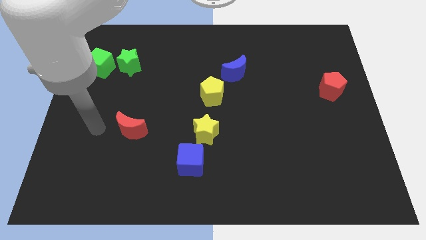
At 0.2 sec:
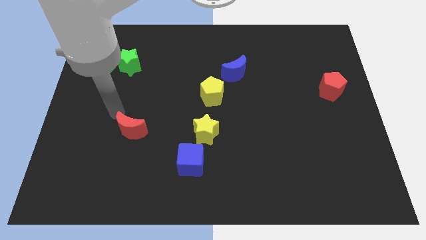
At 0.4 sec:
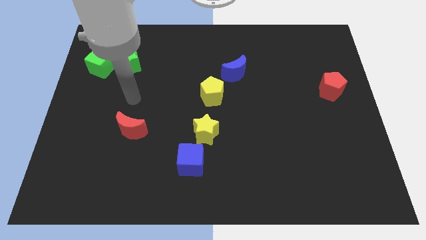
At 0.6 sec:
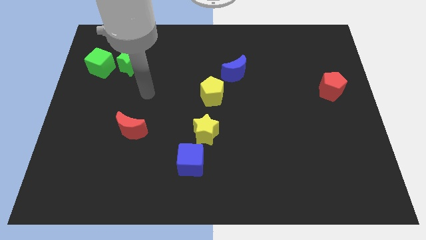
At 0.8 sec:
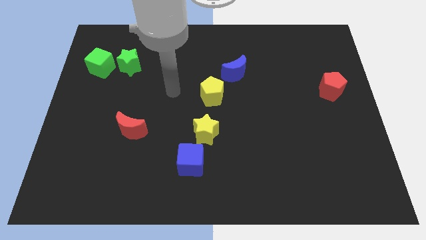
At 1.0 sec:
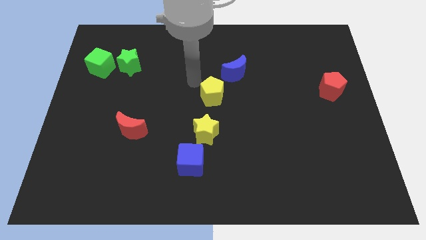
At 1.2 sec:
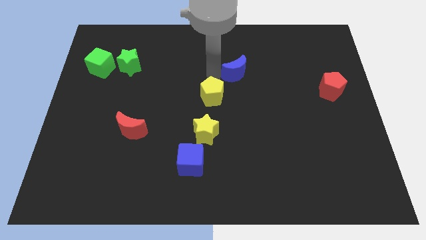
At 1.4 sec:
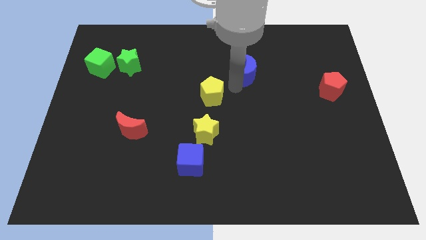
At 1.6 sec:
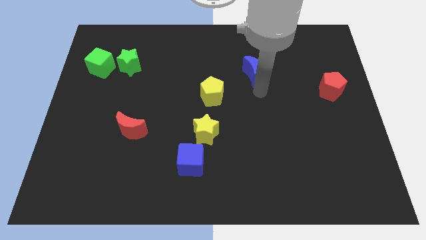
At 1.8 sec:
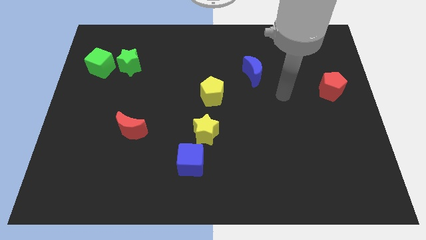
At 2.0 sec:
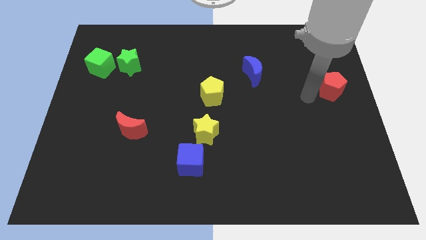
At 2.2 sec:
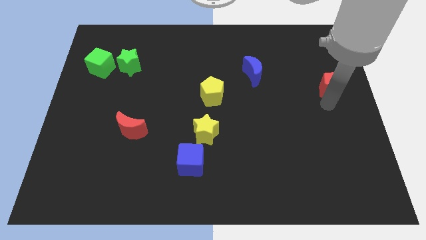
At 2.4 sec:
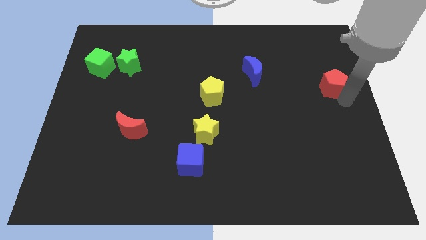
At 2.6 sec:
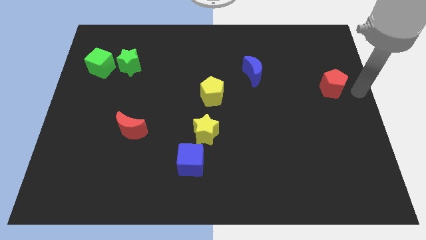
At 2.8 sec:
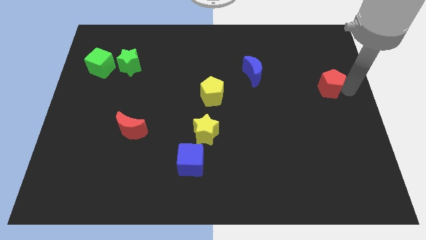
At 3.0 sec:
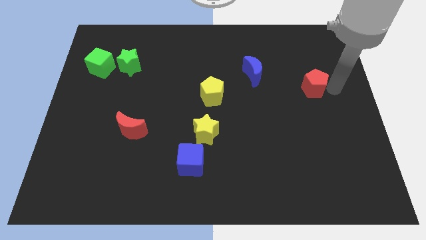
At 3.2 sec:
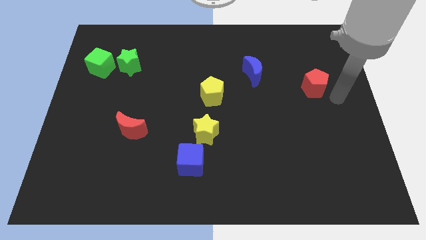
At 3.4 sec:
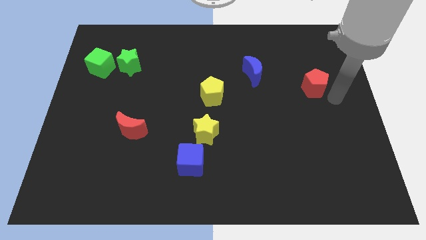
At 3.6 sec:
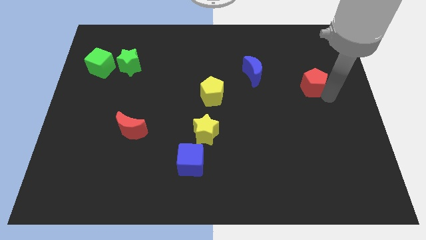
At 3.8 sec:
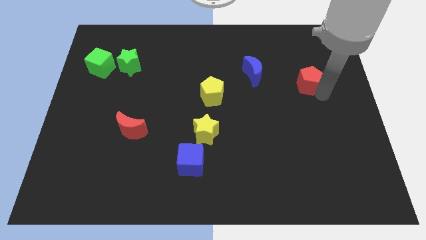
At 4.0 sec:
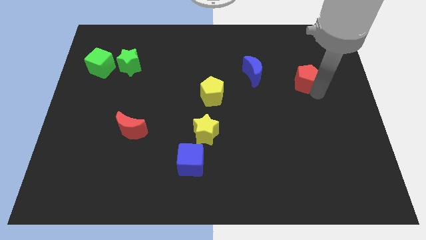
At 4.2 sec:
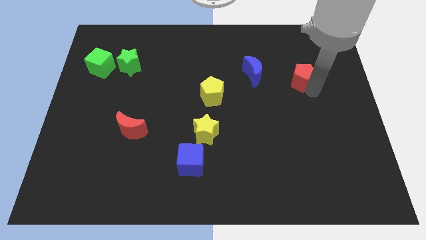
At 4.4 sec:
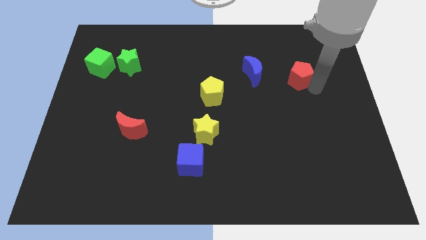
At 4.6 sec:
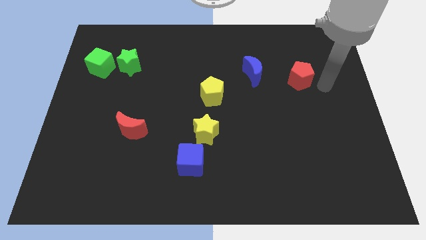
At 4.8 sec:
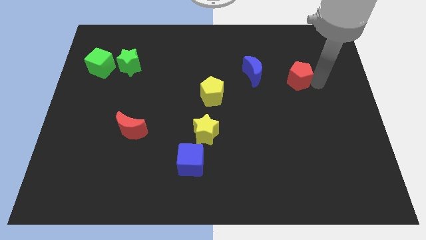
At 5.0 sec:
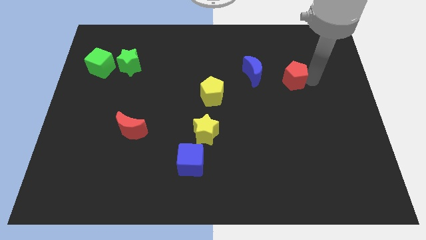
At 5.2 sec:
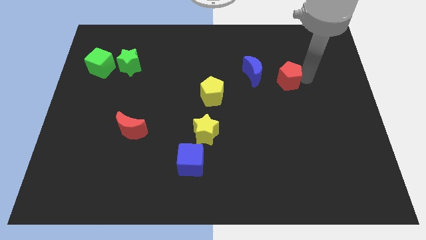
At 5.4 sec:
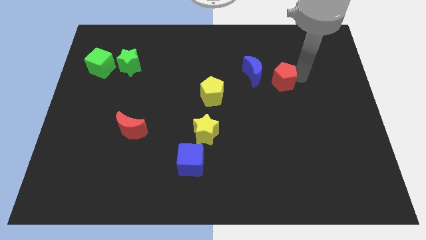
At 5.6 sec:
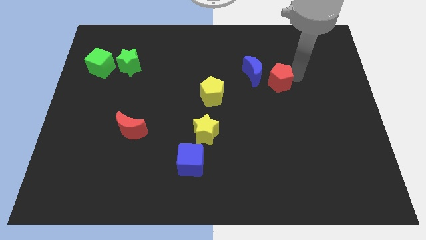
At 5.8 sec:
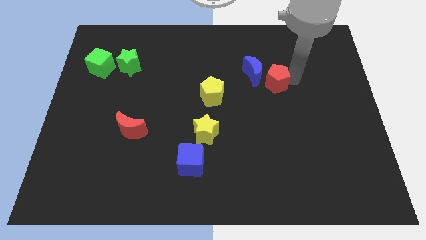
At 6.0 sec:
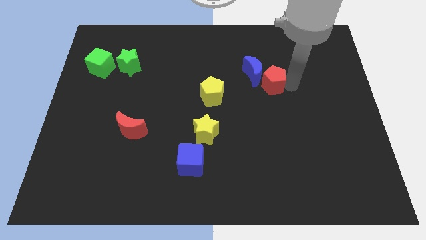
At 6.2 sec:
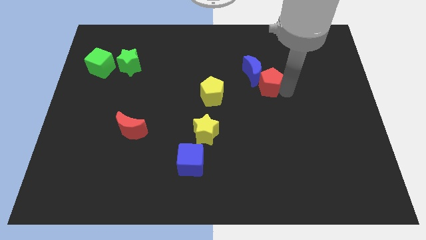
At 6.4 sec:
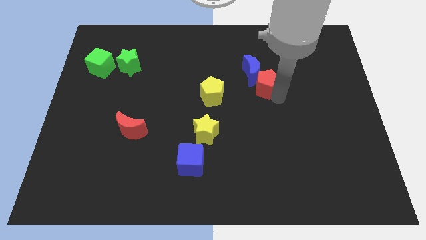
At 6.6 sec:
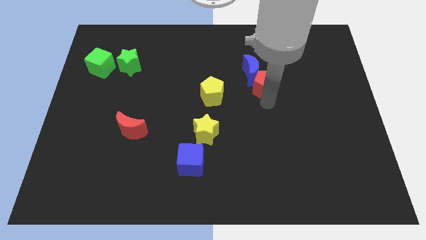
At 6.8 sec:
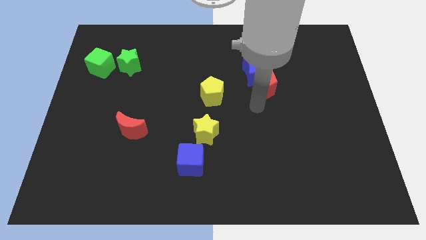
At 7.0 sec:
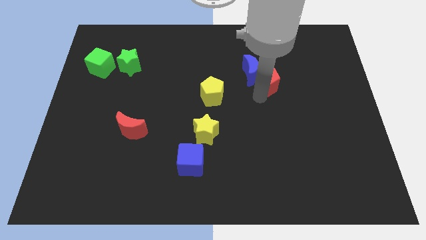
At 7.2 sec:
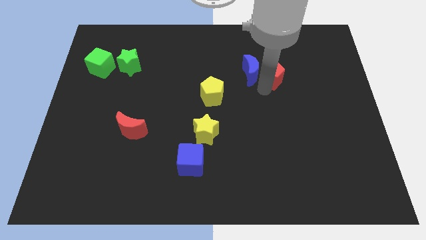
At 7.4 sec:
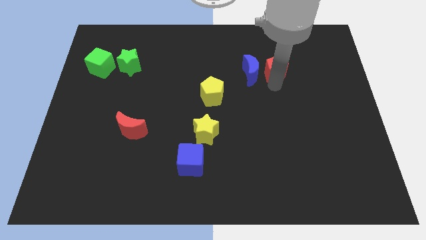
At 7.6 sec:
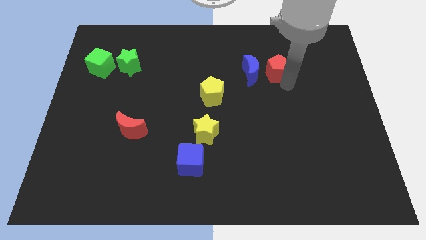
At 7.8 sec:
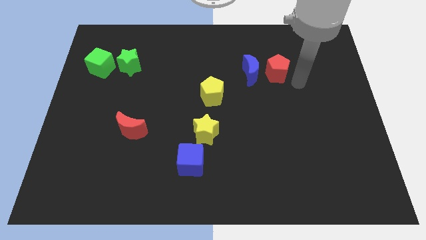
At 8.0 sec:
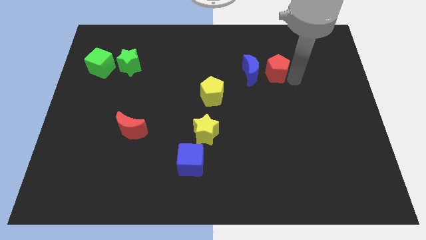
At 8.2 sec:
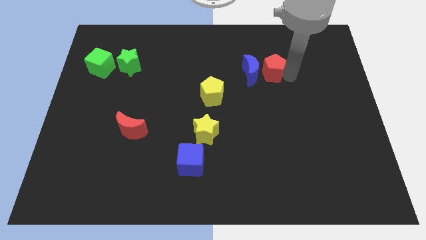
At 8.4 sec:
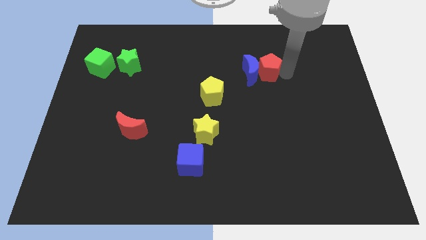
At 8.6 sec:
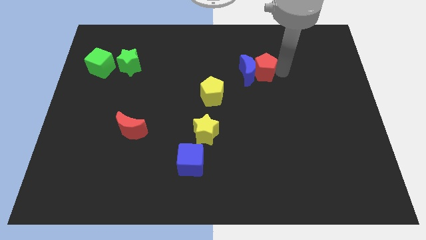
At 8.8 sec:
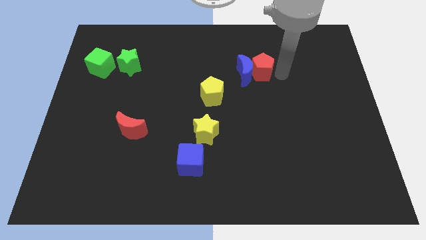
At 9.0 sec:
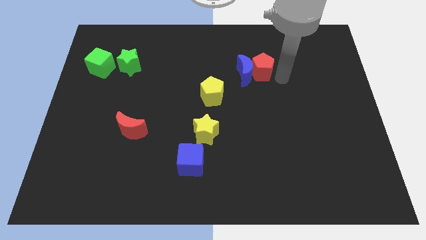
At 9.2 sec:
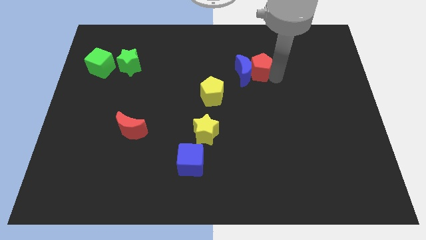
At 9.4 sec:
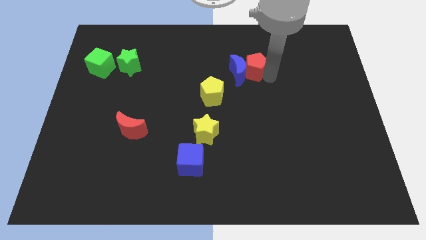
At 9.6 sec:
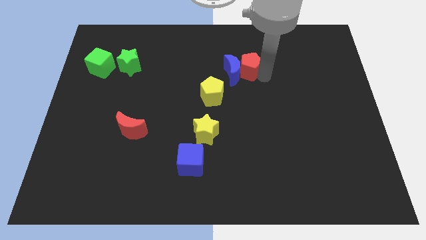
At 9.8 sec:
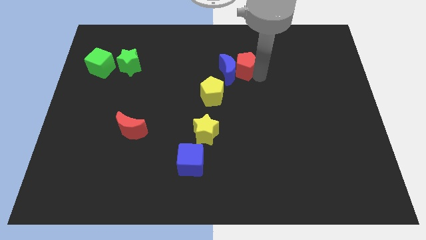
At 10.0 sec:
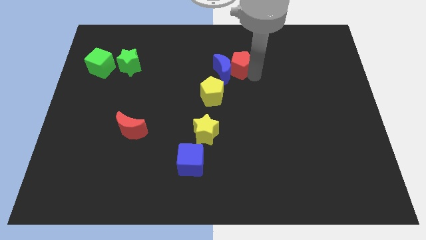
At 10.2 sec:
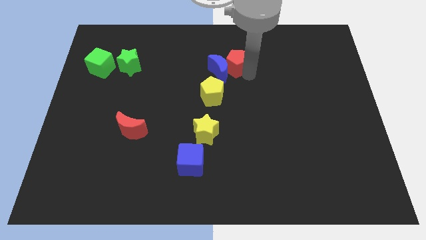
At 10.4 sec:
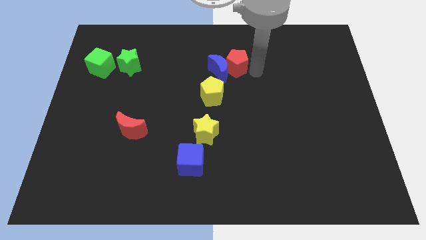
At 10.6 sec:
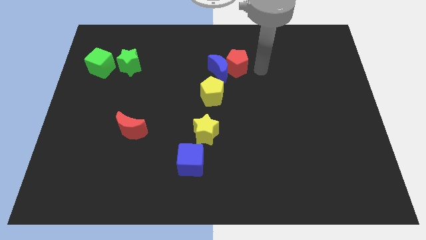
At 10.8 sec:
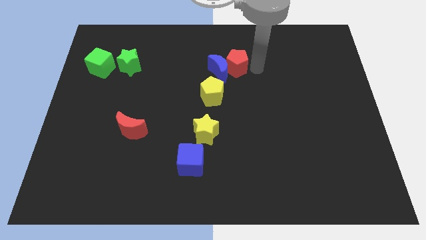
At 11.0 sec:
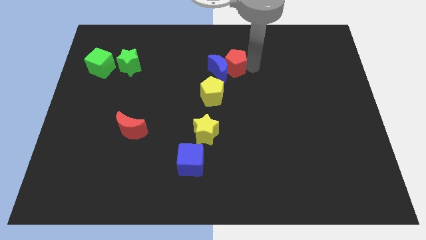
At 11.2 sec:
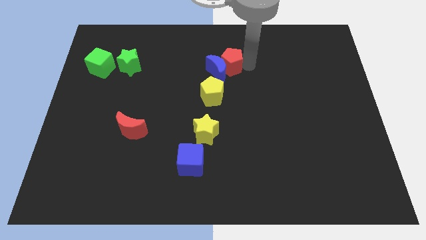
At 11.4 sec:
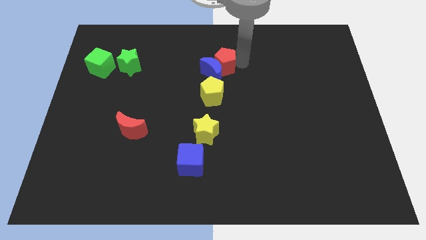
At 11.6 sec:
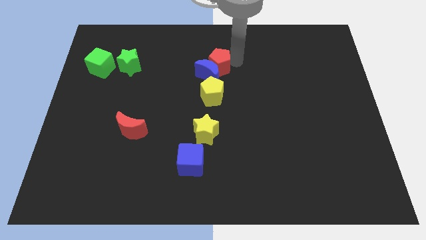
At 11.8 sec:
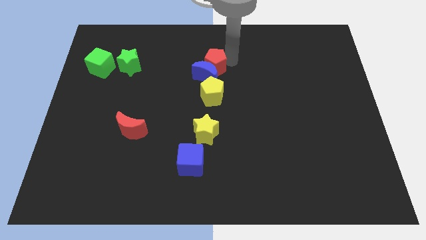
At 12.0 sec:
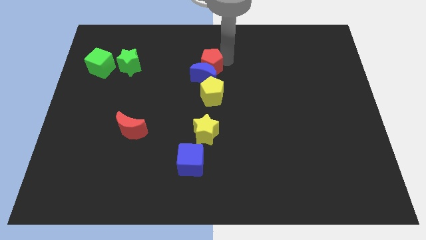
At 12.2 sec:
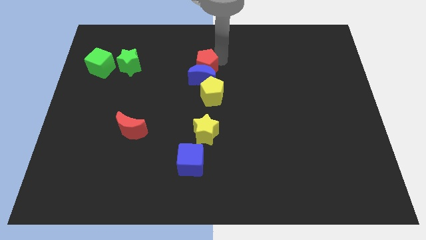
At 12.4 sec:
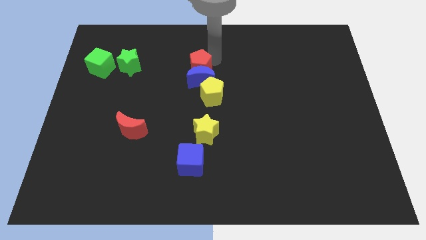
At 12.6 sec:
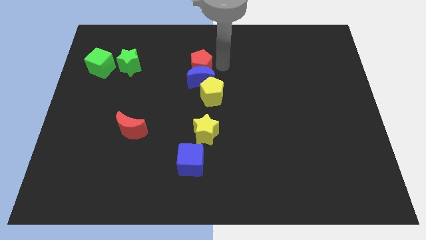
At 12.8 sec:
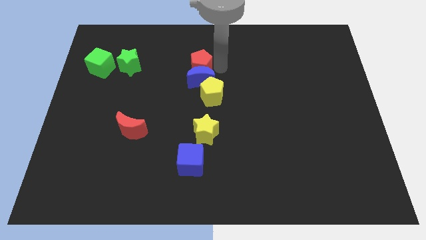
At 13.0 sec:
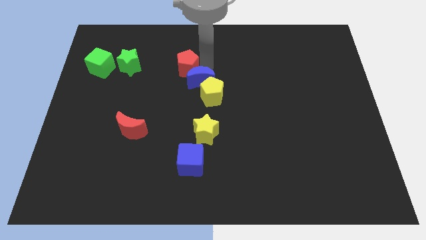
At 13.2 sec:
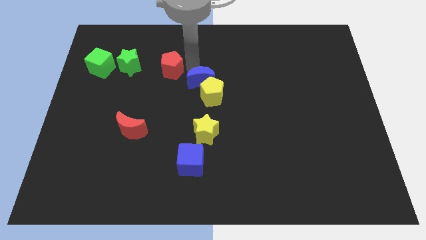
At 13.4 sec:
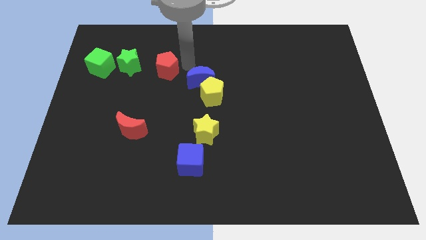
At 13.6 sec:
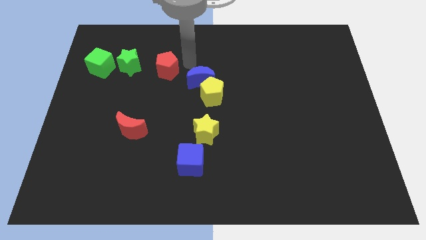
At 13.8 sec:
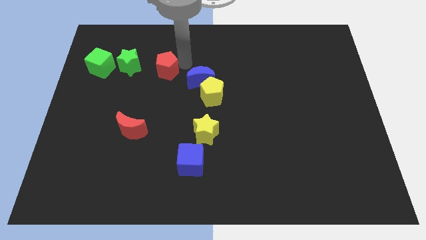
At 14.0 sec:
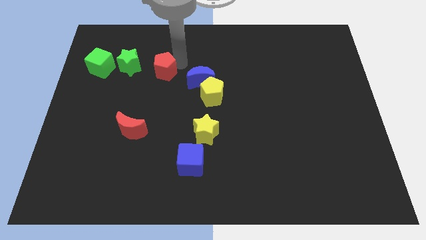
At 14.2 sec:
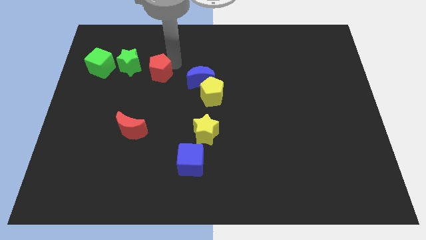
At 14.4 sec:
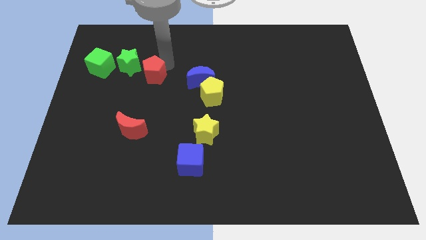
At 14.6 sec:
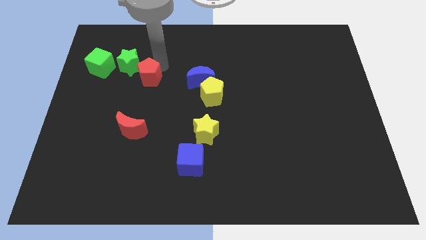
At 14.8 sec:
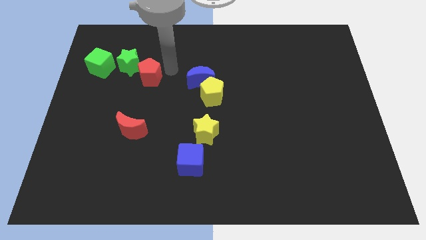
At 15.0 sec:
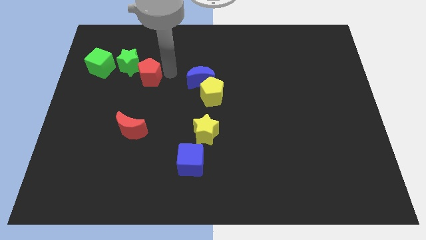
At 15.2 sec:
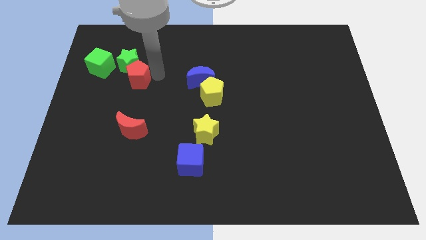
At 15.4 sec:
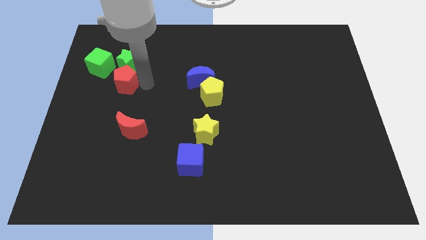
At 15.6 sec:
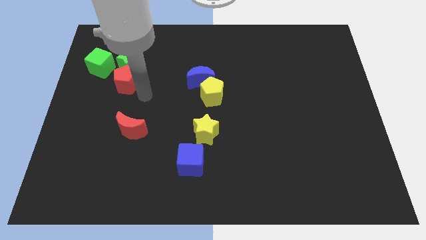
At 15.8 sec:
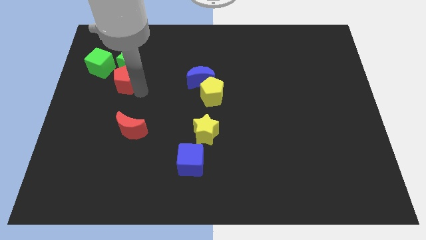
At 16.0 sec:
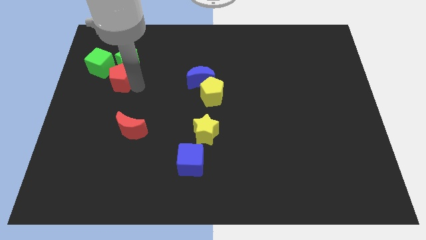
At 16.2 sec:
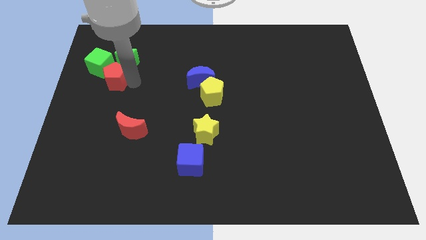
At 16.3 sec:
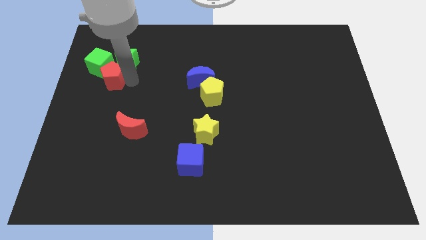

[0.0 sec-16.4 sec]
put the red pentagon towards the green cube
